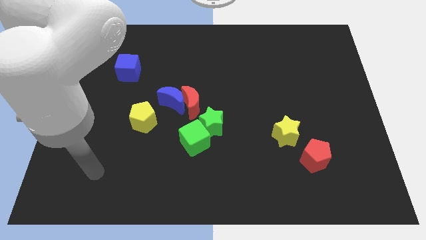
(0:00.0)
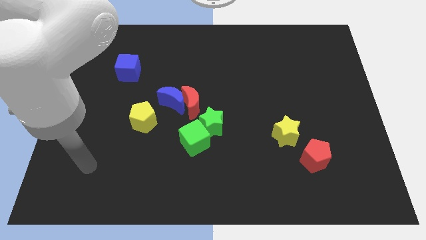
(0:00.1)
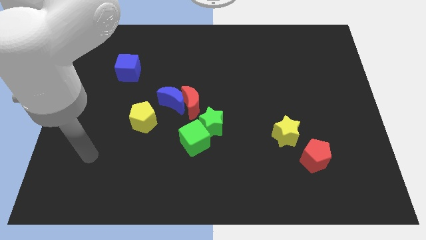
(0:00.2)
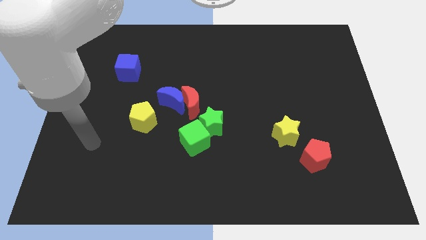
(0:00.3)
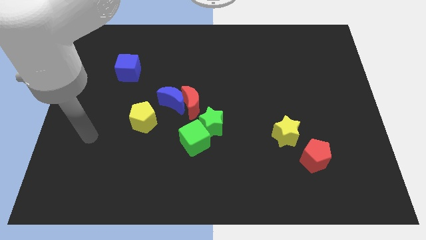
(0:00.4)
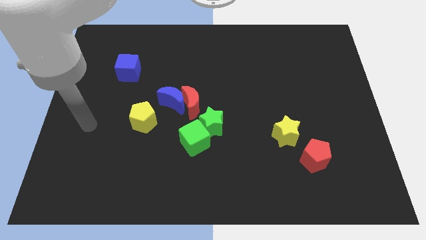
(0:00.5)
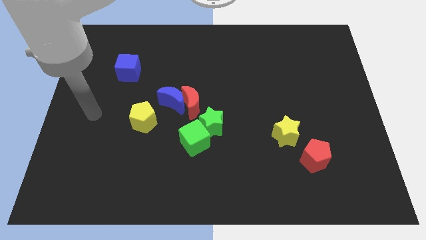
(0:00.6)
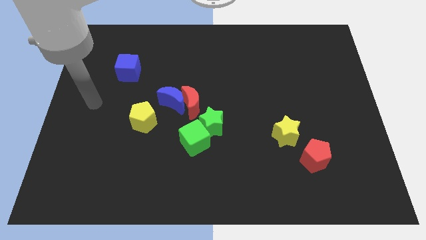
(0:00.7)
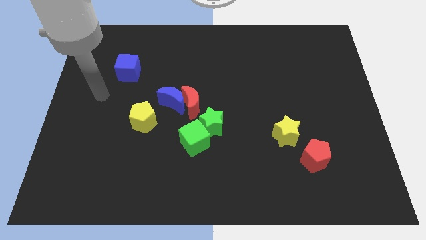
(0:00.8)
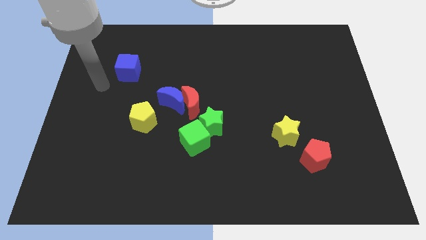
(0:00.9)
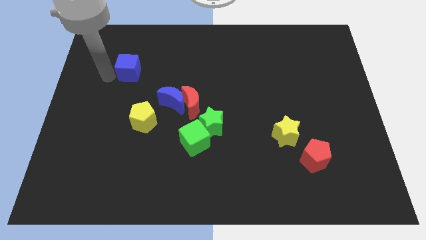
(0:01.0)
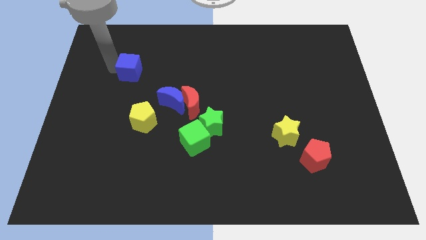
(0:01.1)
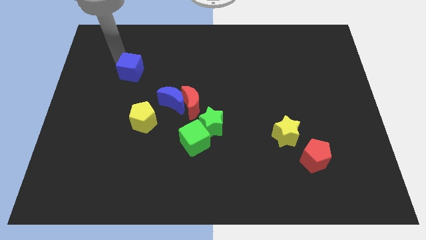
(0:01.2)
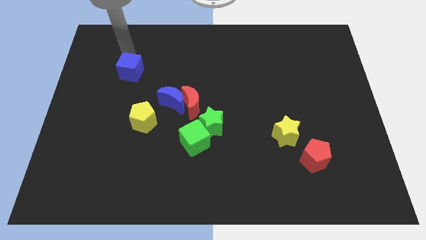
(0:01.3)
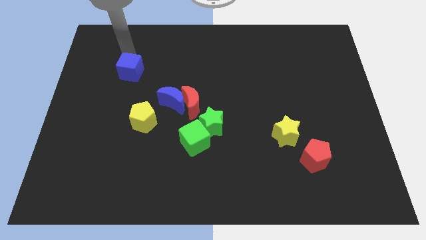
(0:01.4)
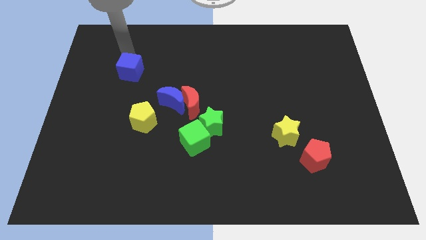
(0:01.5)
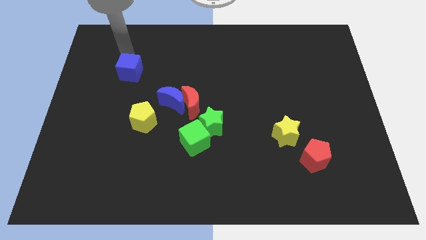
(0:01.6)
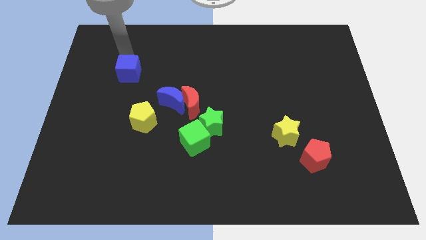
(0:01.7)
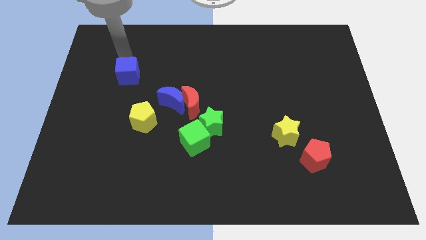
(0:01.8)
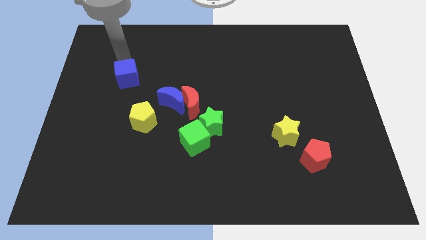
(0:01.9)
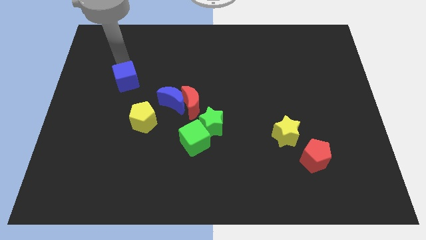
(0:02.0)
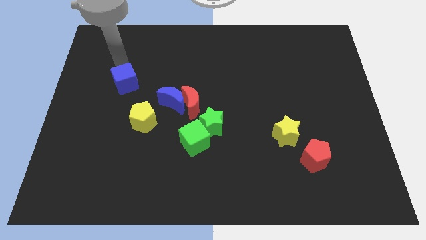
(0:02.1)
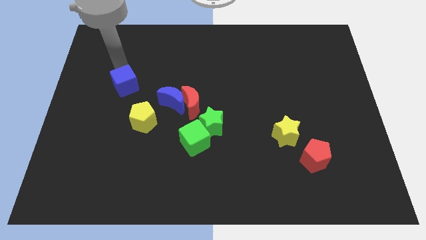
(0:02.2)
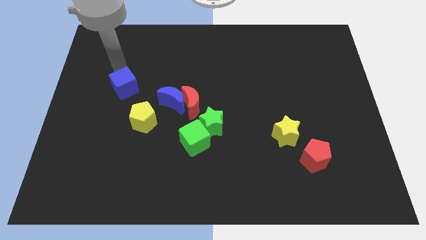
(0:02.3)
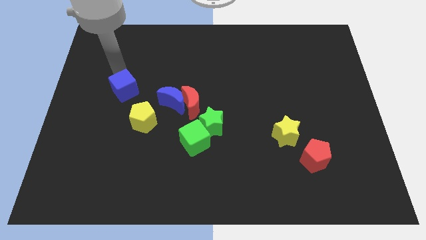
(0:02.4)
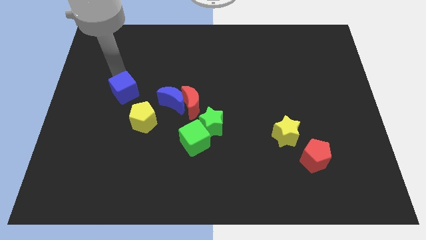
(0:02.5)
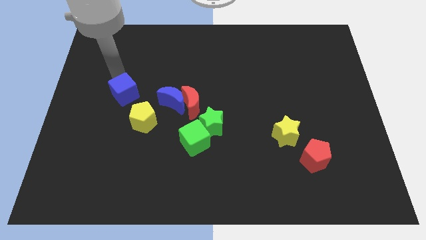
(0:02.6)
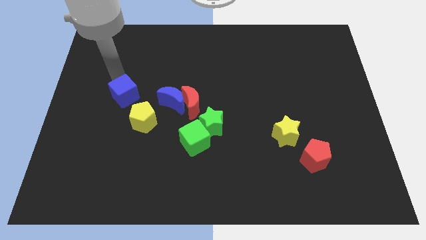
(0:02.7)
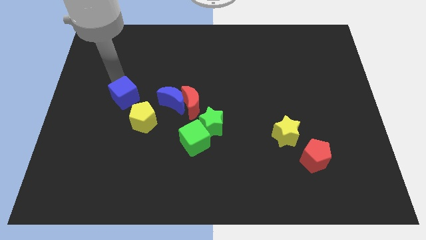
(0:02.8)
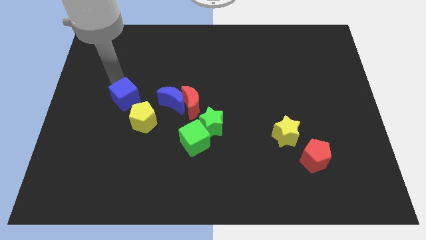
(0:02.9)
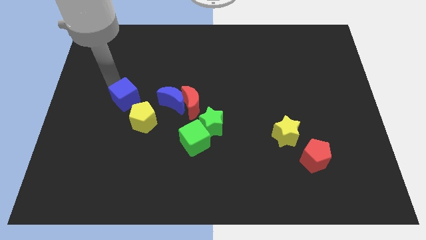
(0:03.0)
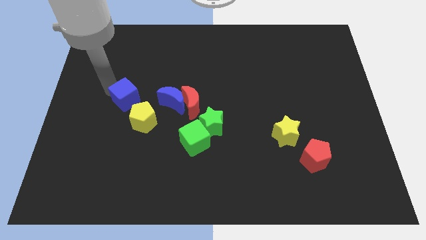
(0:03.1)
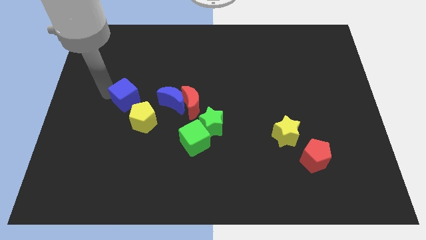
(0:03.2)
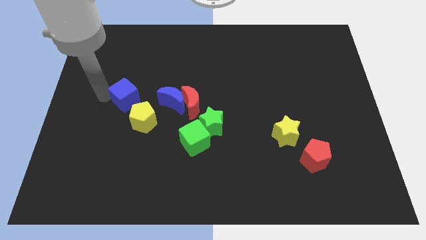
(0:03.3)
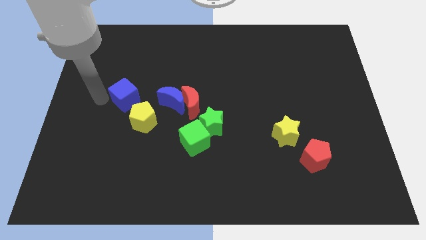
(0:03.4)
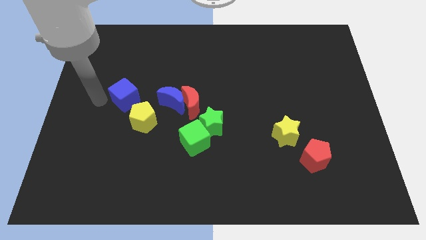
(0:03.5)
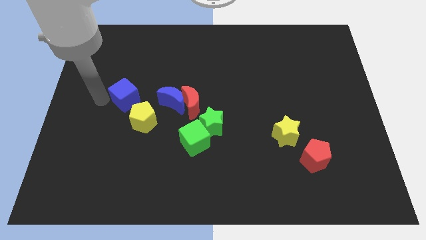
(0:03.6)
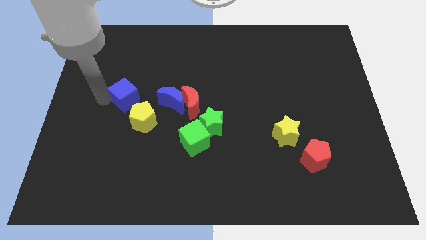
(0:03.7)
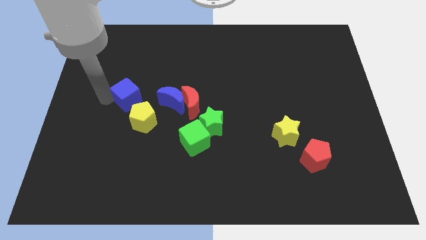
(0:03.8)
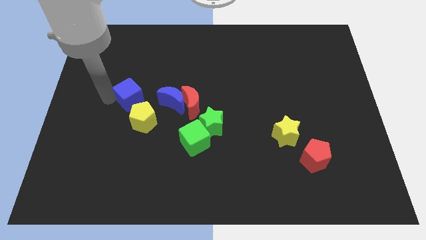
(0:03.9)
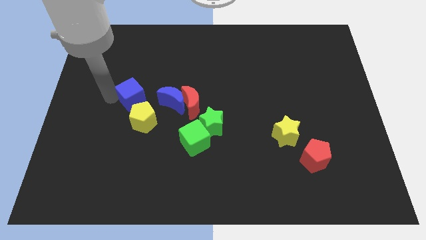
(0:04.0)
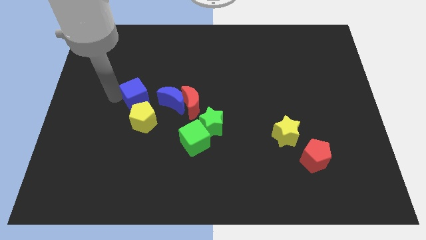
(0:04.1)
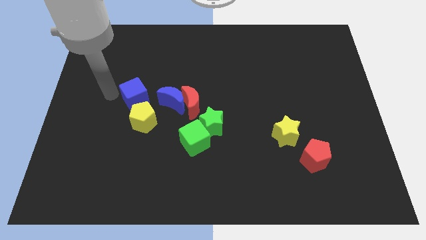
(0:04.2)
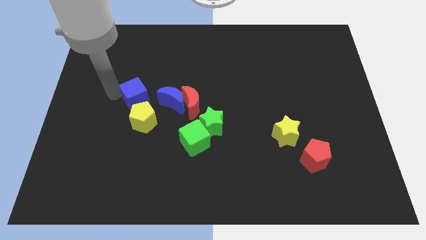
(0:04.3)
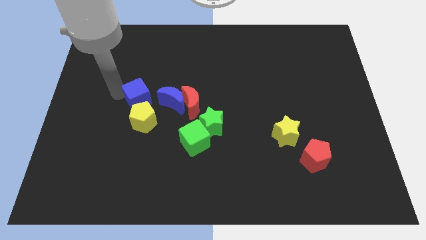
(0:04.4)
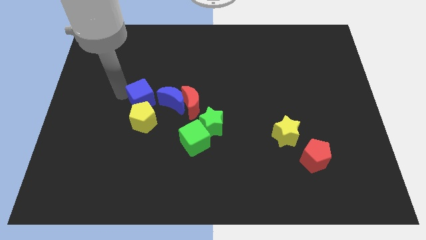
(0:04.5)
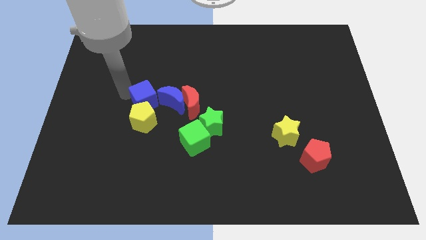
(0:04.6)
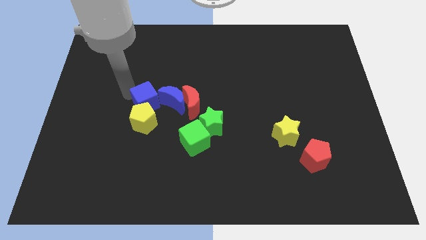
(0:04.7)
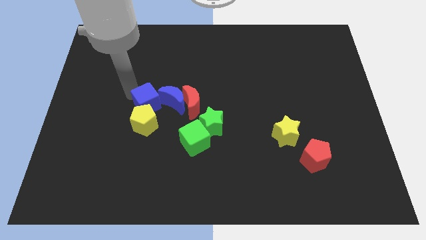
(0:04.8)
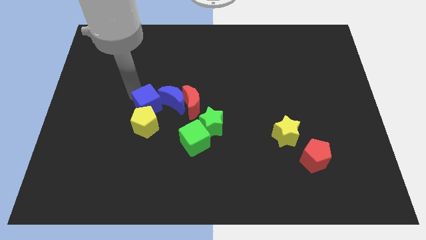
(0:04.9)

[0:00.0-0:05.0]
push the blue cube to the blue moon

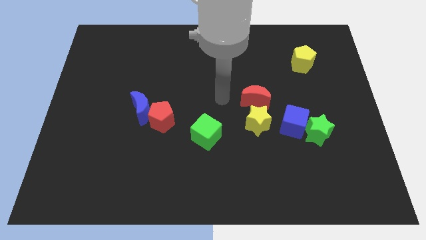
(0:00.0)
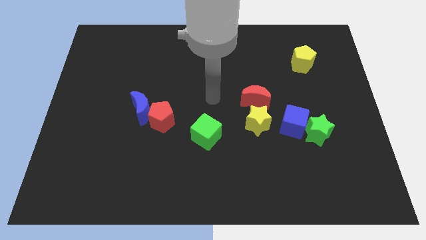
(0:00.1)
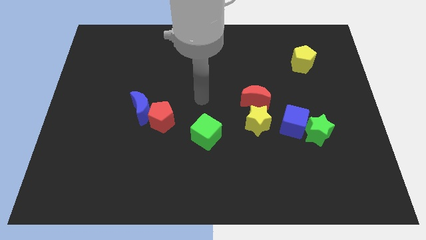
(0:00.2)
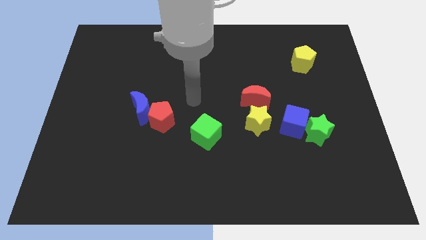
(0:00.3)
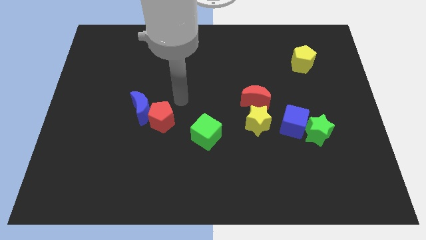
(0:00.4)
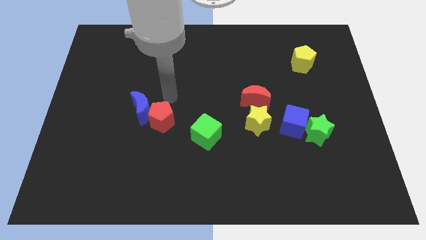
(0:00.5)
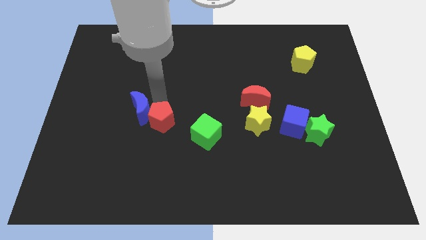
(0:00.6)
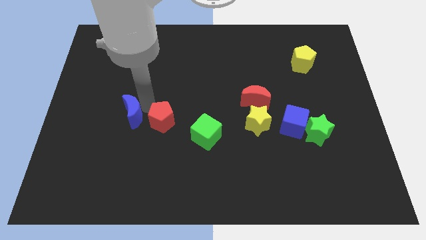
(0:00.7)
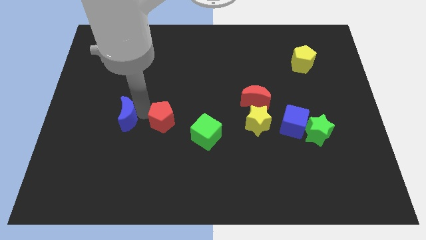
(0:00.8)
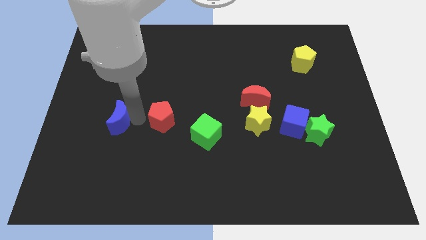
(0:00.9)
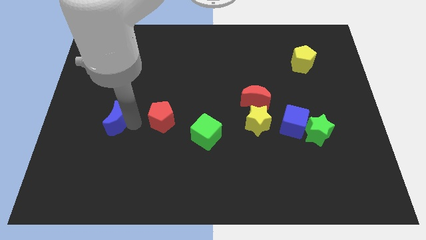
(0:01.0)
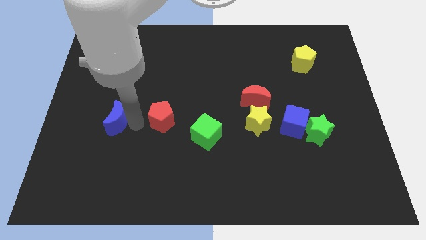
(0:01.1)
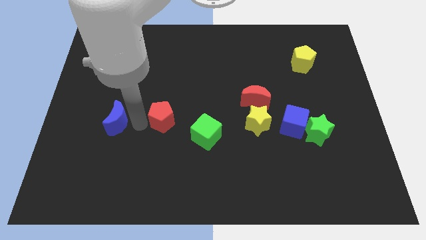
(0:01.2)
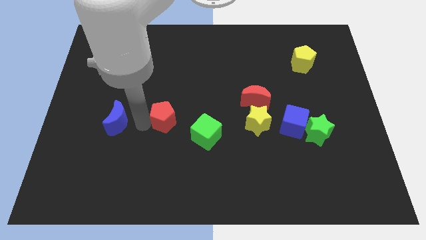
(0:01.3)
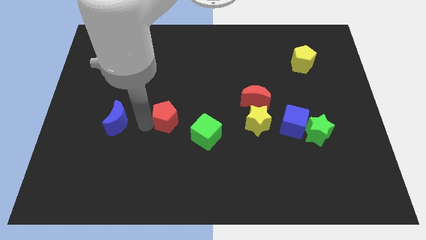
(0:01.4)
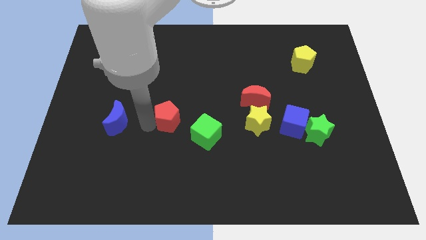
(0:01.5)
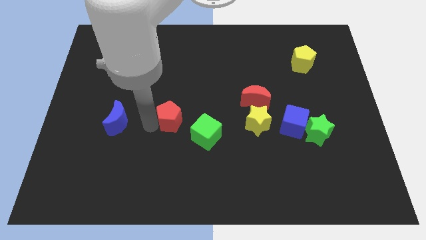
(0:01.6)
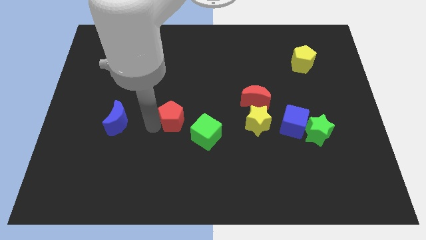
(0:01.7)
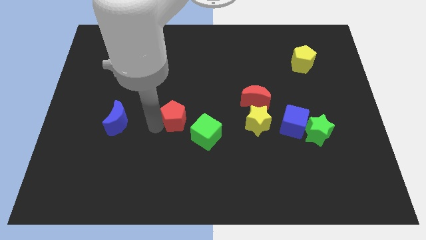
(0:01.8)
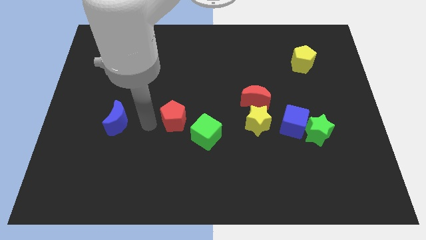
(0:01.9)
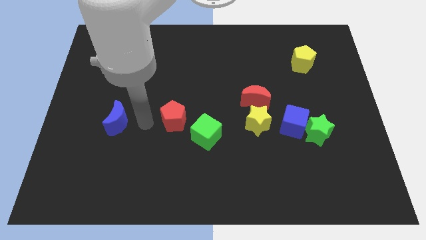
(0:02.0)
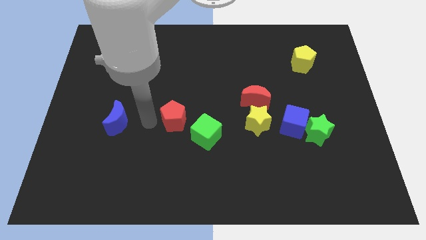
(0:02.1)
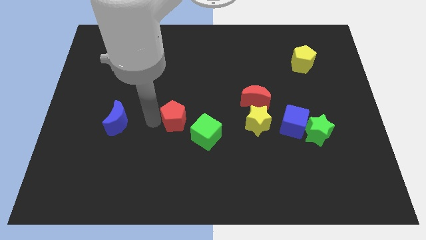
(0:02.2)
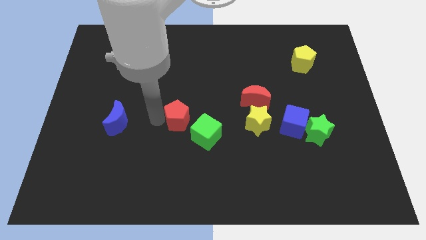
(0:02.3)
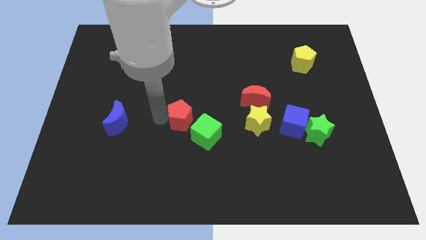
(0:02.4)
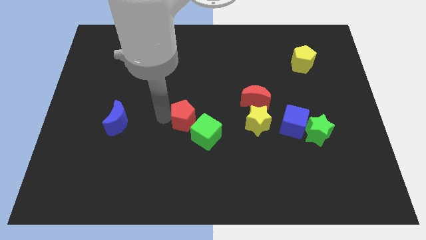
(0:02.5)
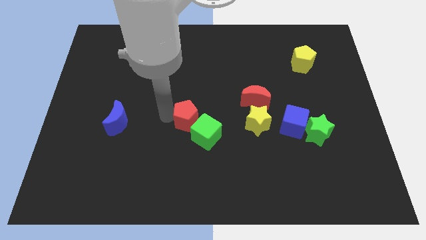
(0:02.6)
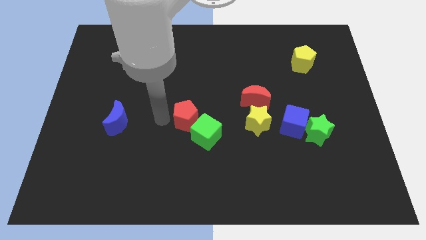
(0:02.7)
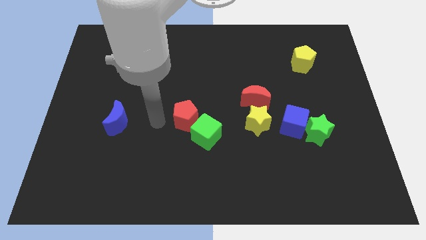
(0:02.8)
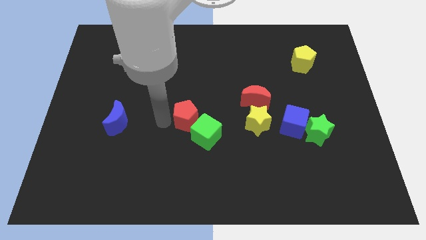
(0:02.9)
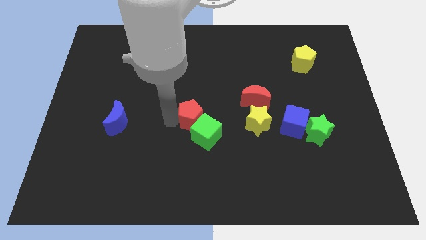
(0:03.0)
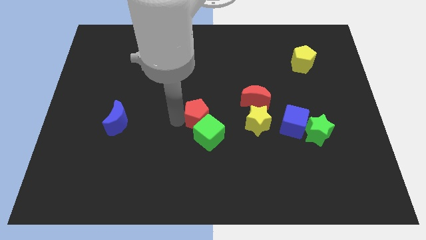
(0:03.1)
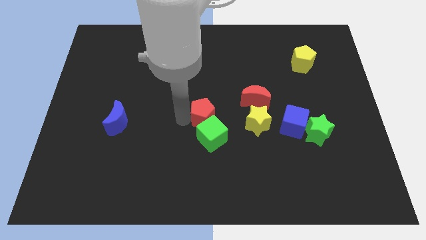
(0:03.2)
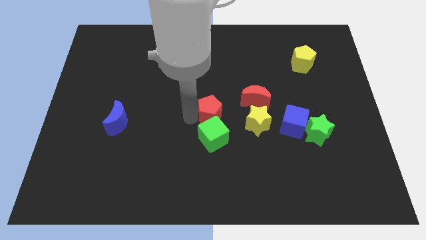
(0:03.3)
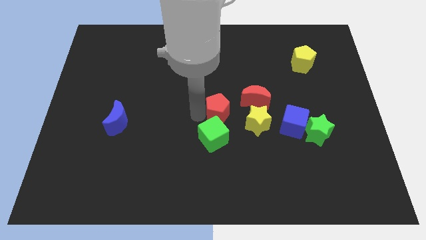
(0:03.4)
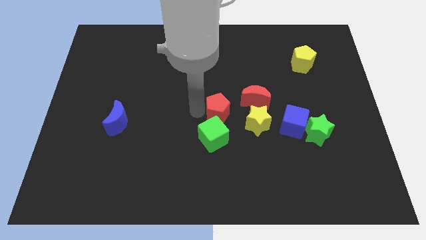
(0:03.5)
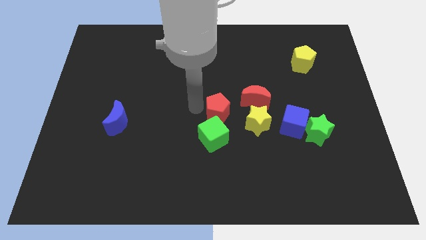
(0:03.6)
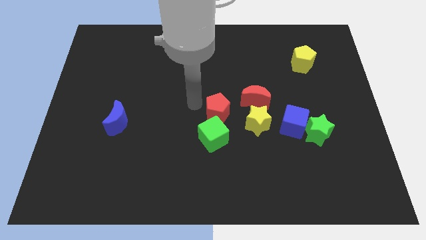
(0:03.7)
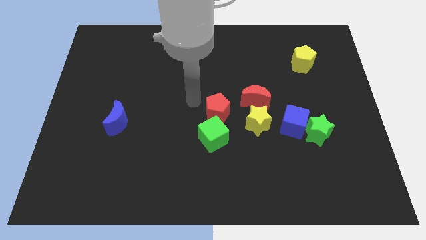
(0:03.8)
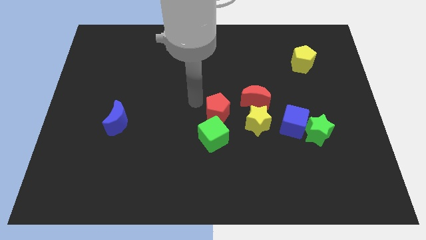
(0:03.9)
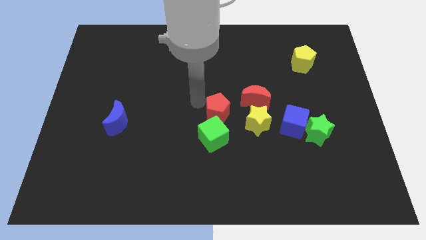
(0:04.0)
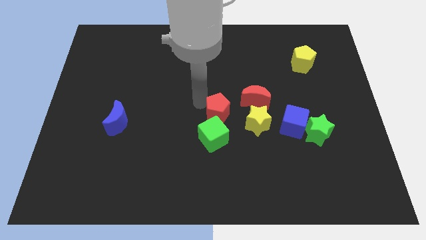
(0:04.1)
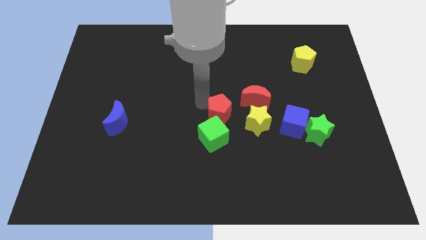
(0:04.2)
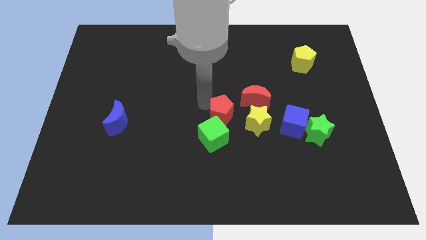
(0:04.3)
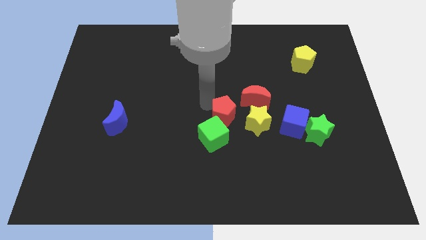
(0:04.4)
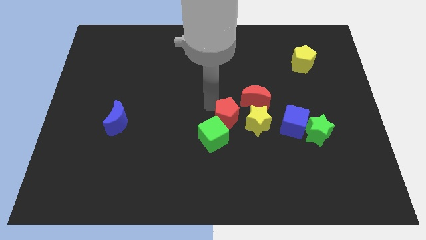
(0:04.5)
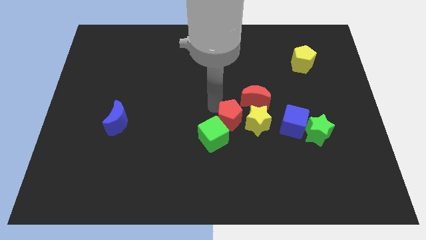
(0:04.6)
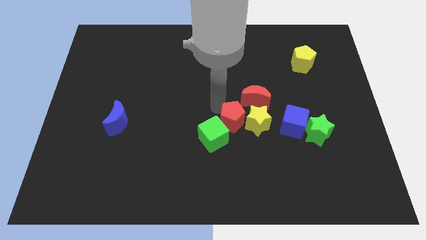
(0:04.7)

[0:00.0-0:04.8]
put the red pentagon towards the yellow star
